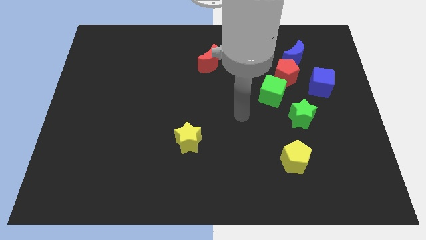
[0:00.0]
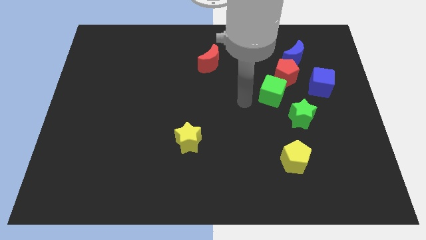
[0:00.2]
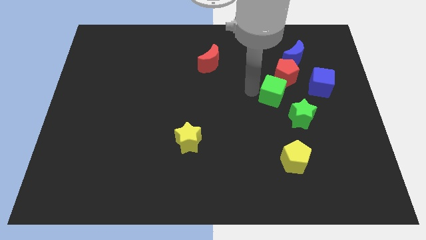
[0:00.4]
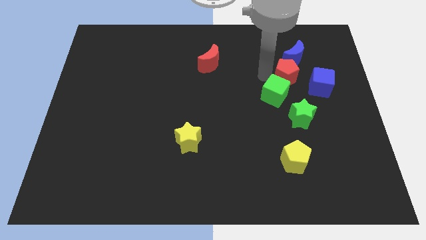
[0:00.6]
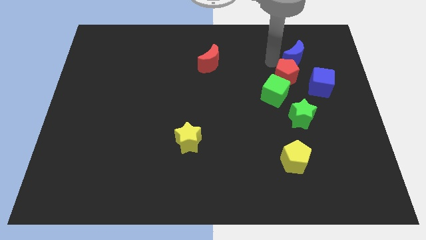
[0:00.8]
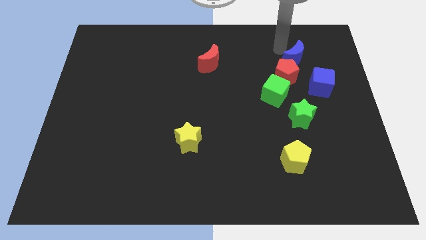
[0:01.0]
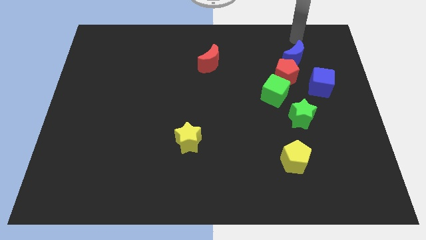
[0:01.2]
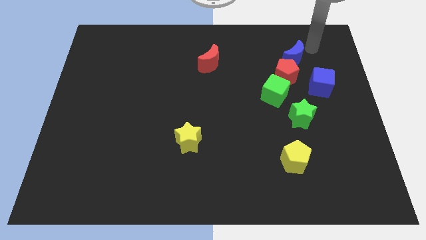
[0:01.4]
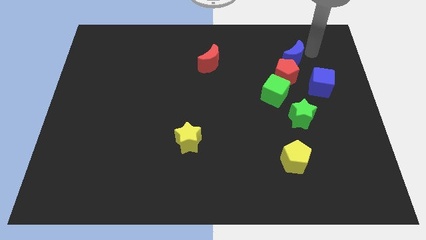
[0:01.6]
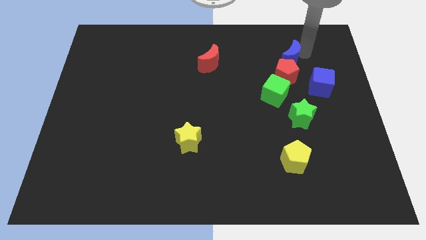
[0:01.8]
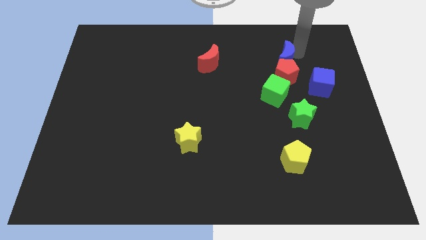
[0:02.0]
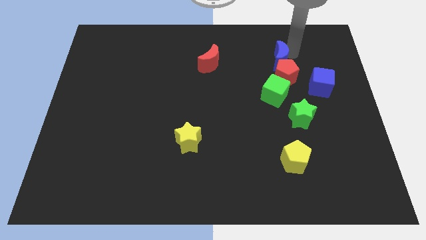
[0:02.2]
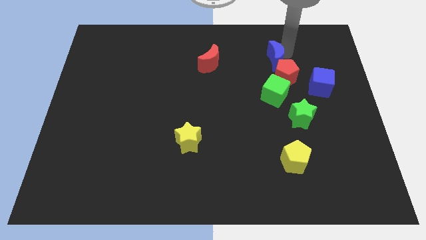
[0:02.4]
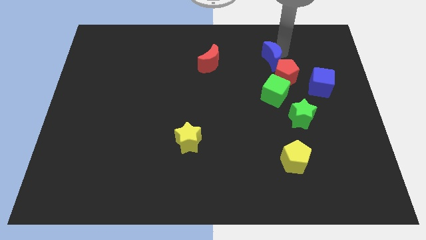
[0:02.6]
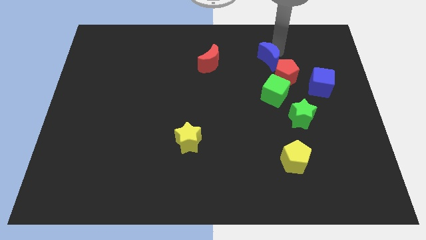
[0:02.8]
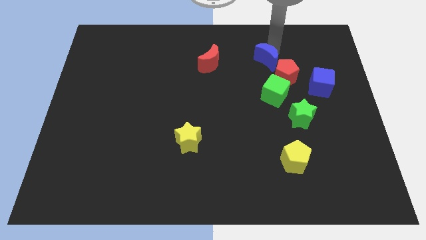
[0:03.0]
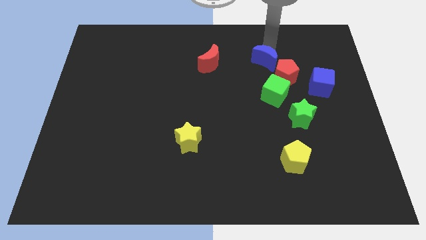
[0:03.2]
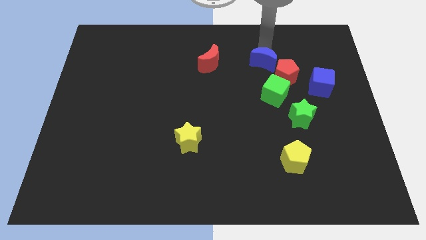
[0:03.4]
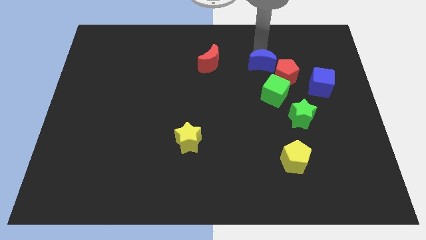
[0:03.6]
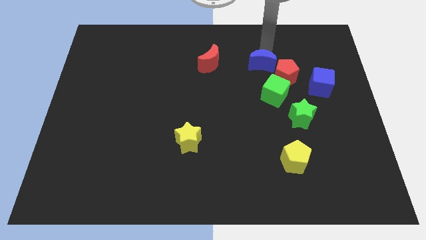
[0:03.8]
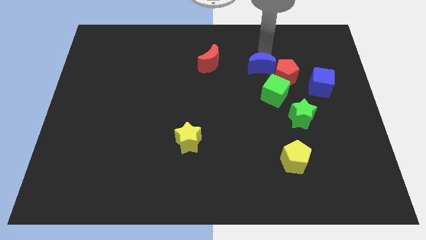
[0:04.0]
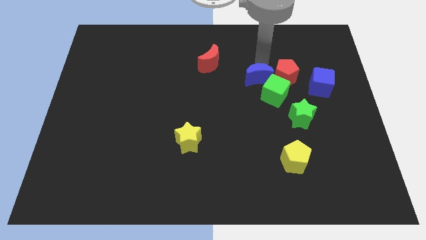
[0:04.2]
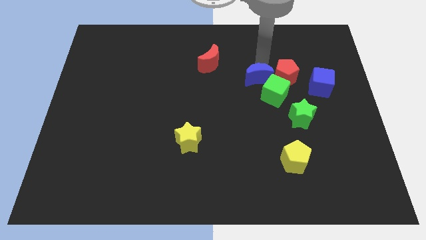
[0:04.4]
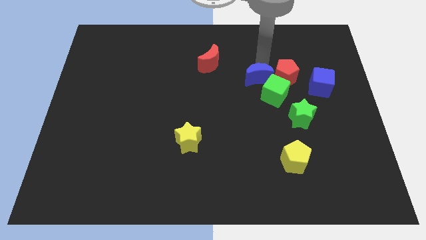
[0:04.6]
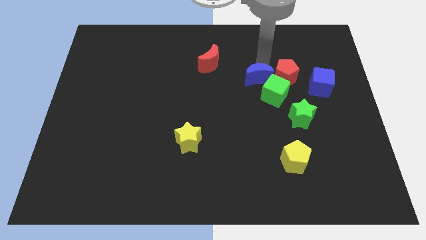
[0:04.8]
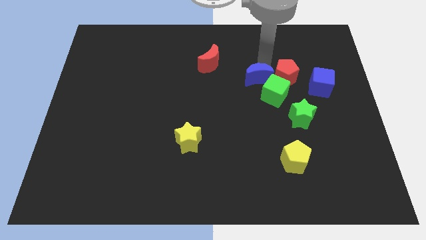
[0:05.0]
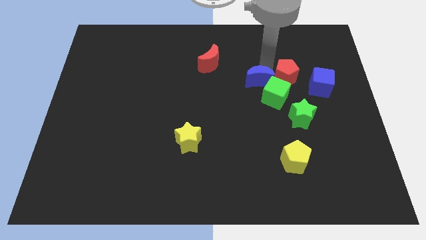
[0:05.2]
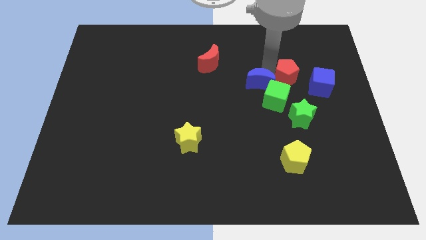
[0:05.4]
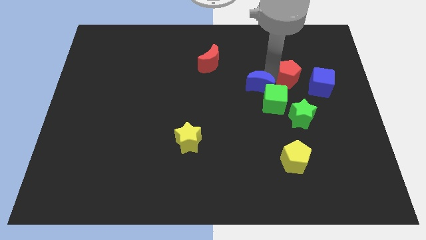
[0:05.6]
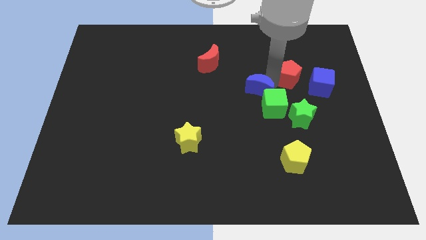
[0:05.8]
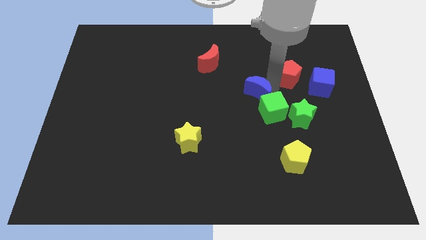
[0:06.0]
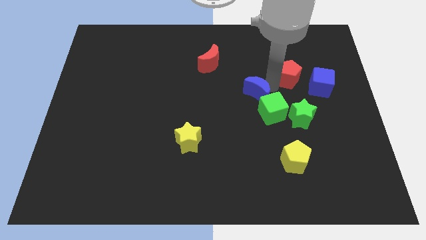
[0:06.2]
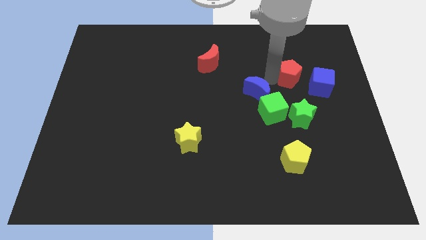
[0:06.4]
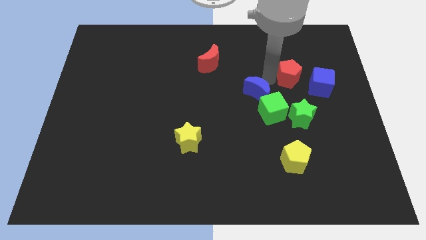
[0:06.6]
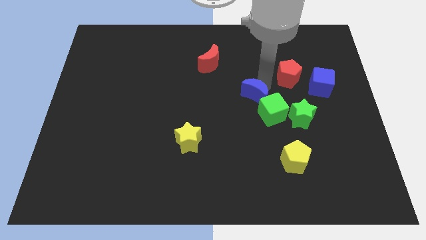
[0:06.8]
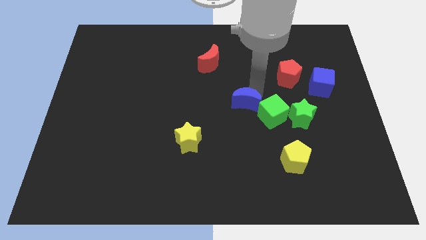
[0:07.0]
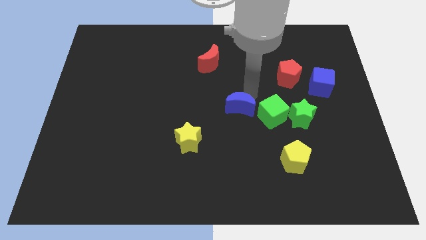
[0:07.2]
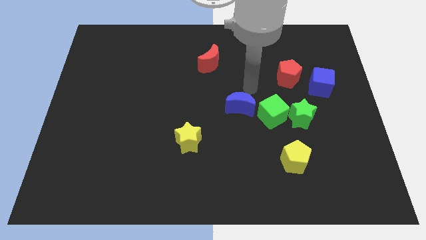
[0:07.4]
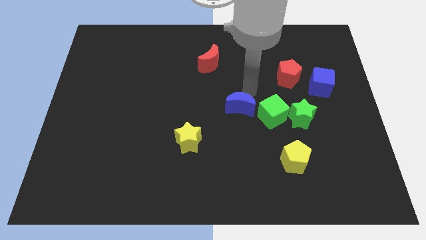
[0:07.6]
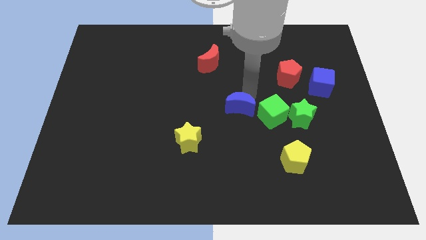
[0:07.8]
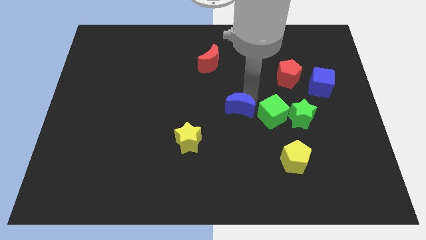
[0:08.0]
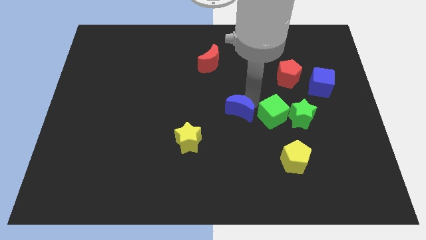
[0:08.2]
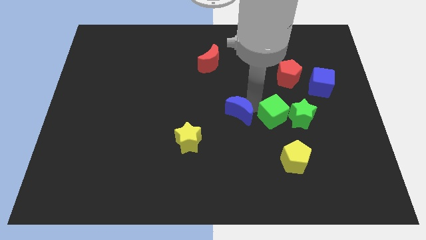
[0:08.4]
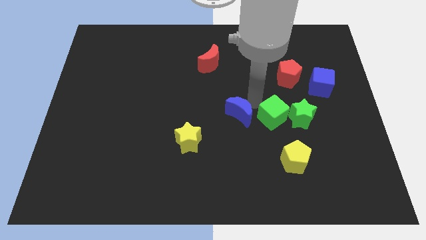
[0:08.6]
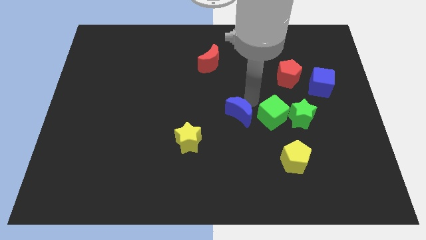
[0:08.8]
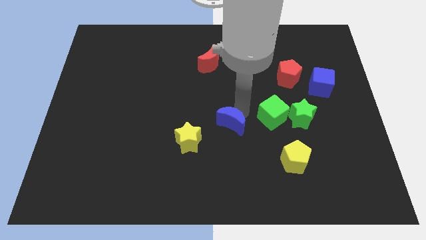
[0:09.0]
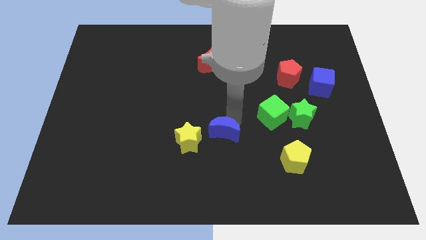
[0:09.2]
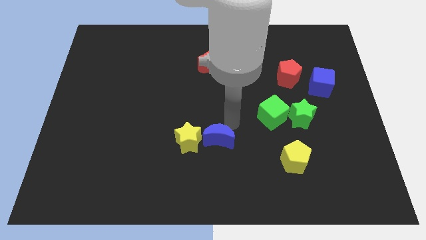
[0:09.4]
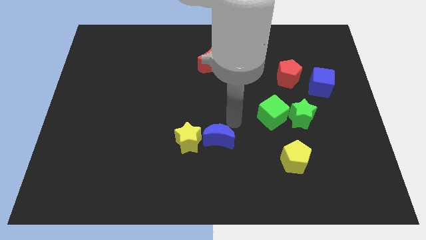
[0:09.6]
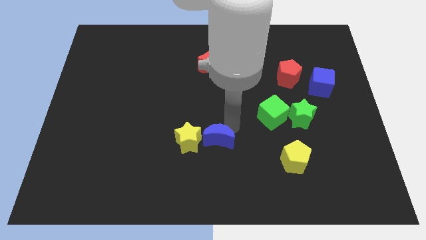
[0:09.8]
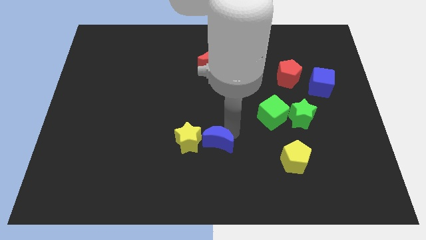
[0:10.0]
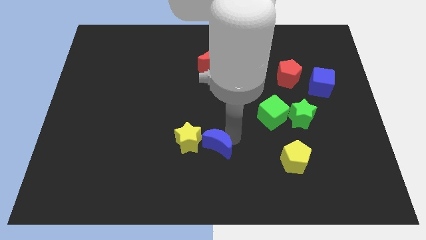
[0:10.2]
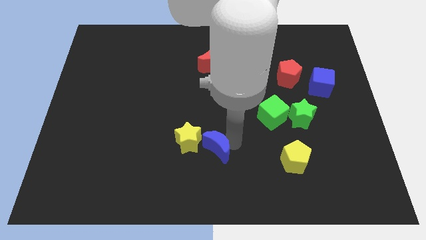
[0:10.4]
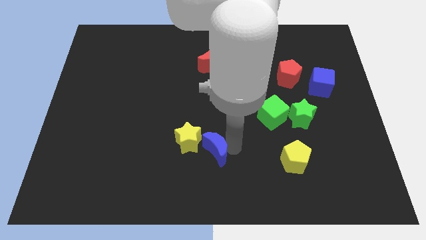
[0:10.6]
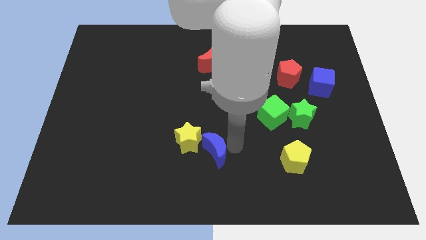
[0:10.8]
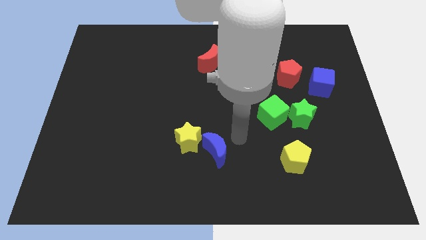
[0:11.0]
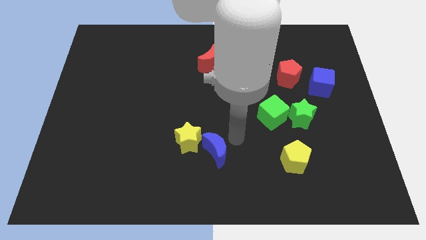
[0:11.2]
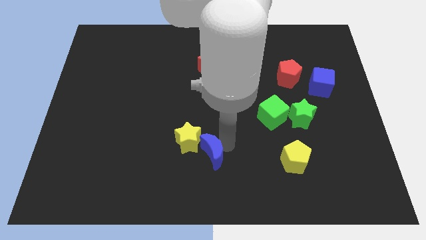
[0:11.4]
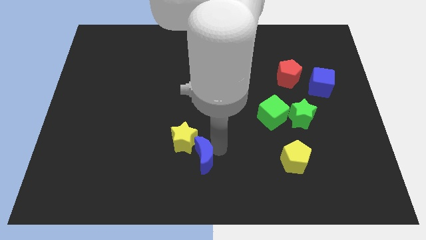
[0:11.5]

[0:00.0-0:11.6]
put the blue moon to the bottom side of the yellow star

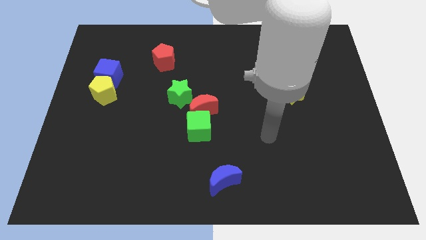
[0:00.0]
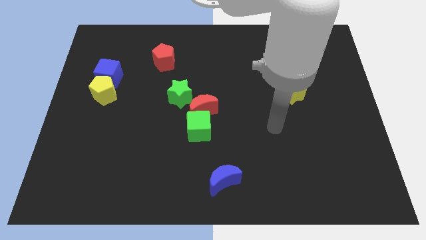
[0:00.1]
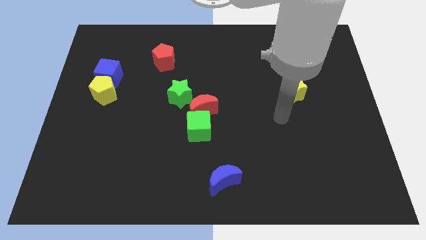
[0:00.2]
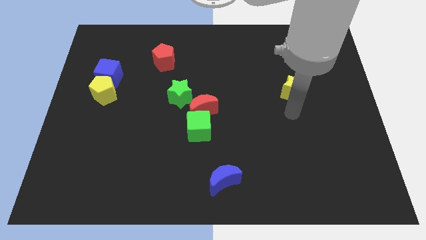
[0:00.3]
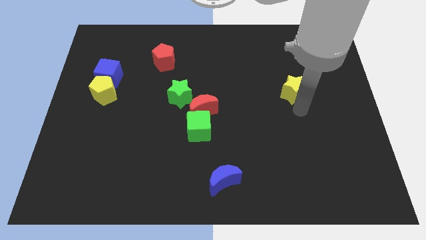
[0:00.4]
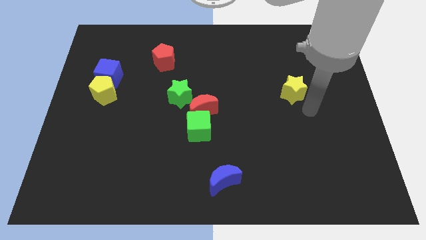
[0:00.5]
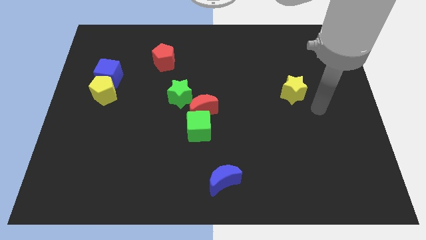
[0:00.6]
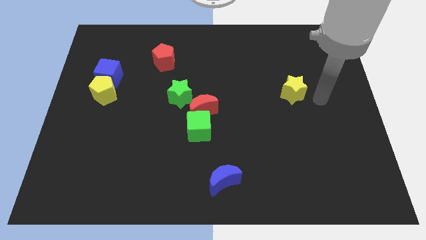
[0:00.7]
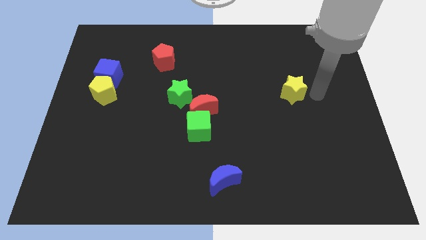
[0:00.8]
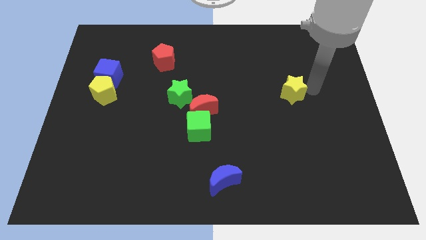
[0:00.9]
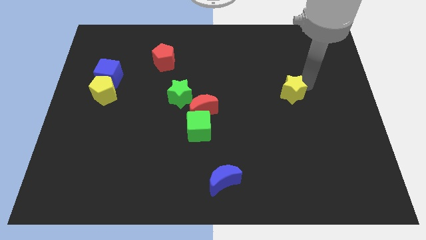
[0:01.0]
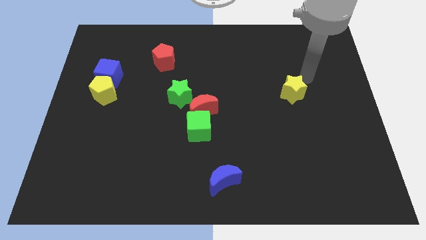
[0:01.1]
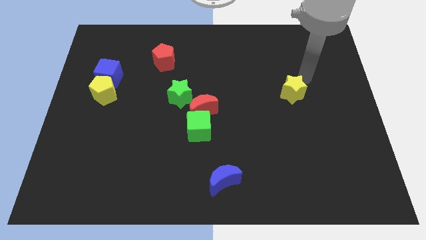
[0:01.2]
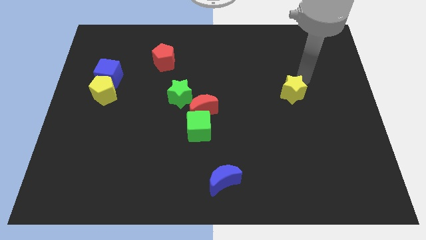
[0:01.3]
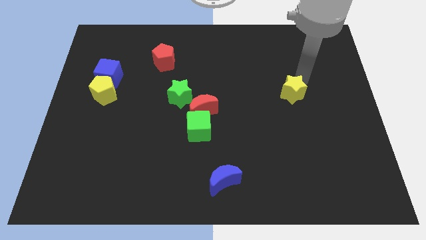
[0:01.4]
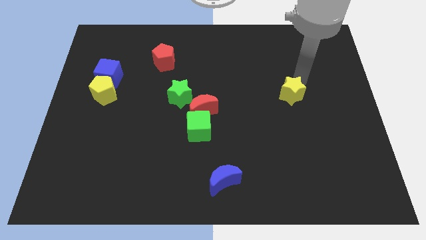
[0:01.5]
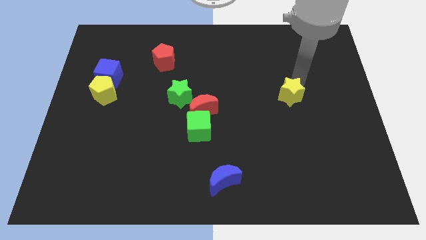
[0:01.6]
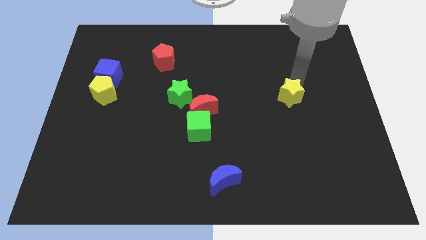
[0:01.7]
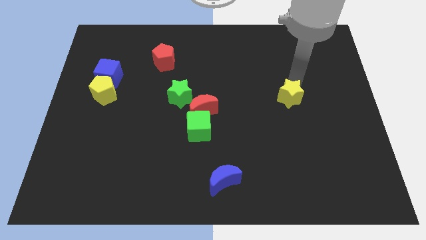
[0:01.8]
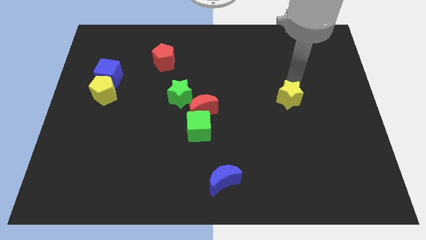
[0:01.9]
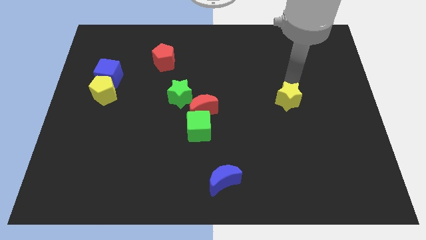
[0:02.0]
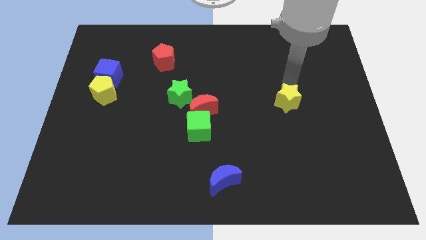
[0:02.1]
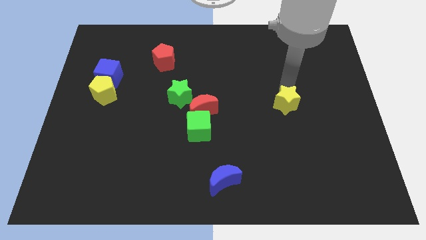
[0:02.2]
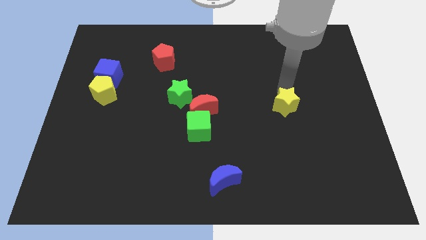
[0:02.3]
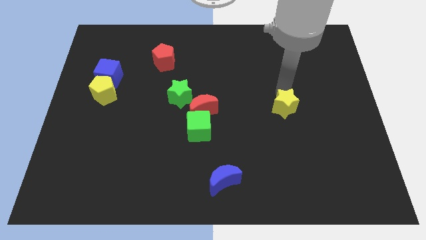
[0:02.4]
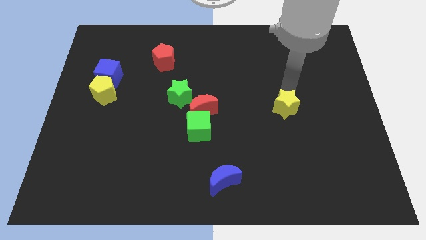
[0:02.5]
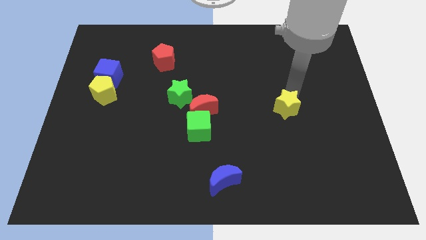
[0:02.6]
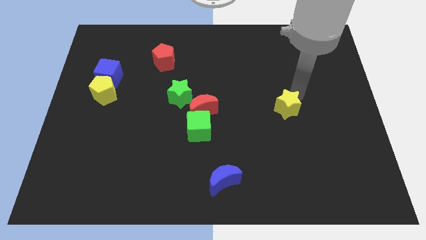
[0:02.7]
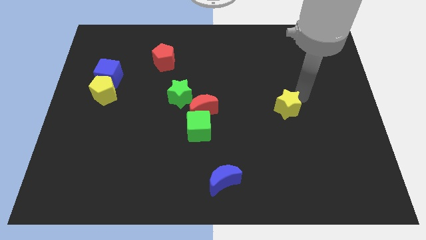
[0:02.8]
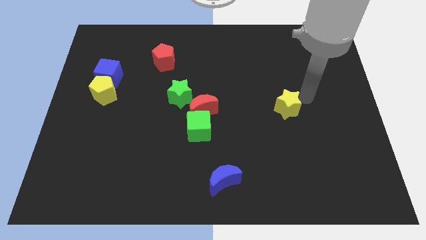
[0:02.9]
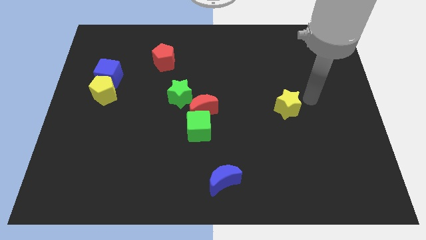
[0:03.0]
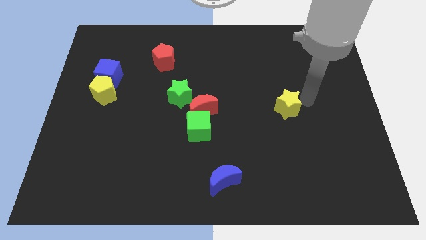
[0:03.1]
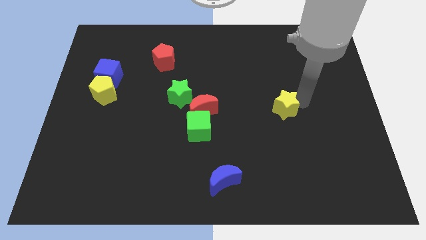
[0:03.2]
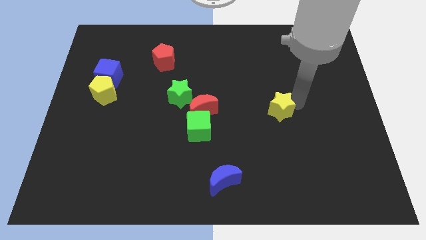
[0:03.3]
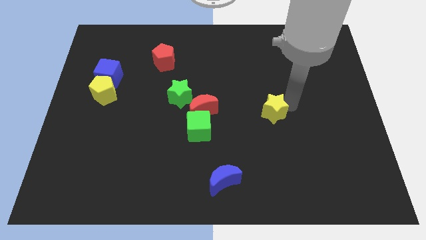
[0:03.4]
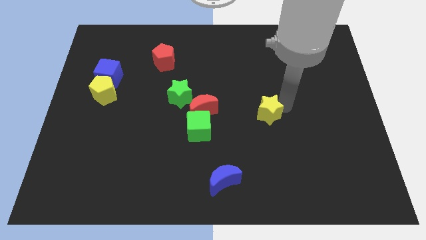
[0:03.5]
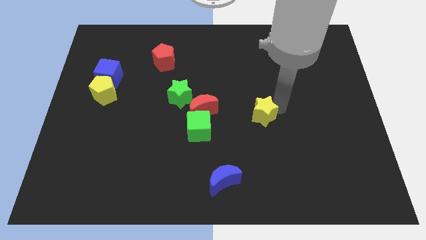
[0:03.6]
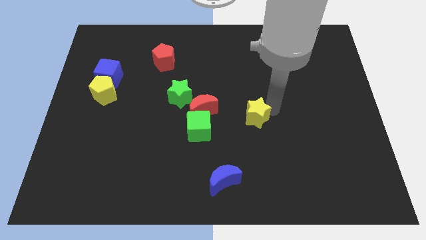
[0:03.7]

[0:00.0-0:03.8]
slide the yellow star right of the green cube
